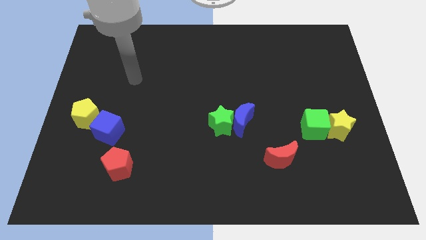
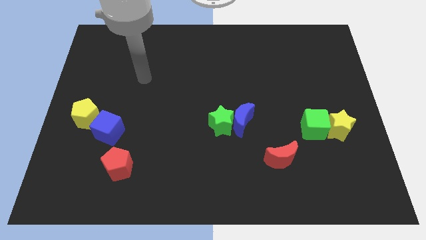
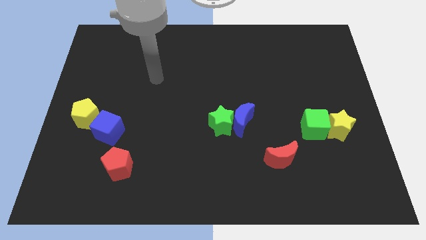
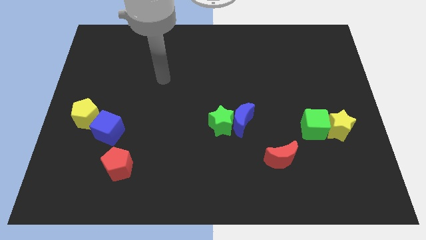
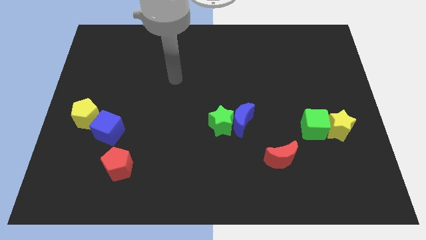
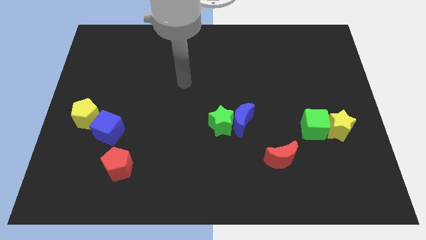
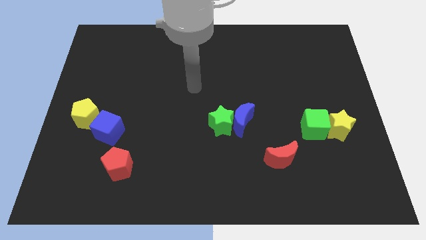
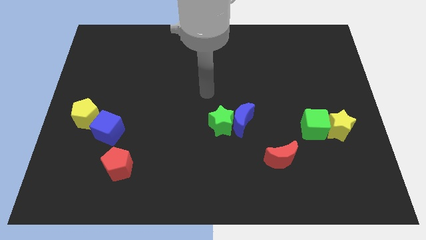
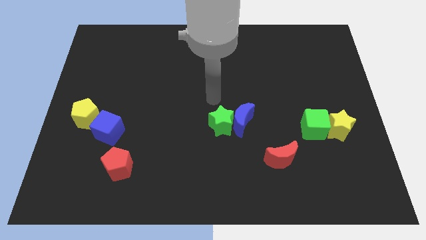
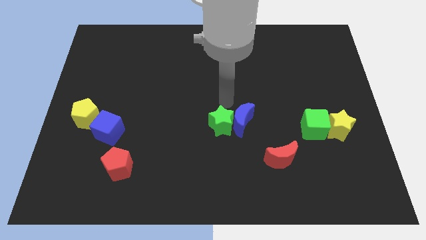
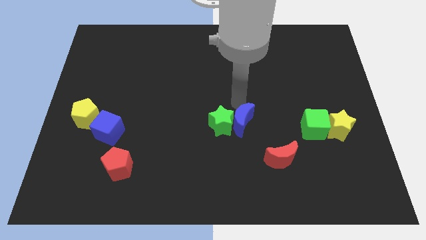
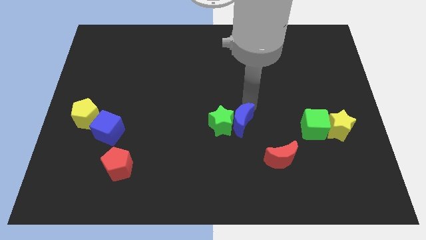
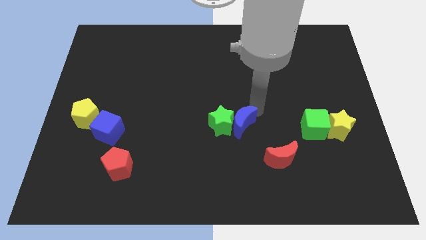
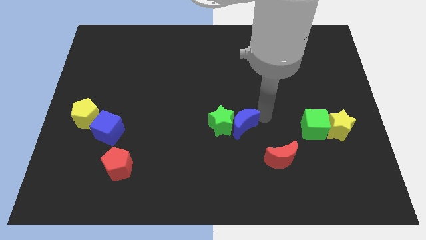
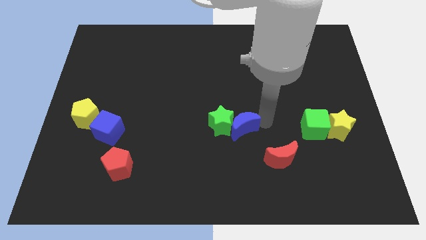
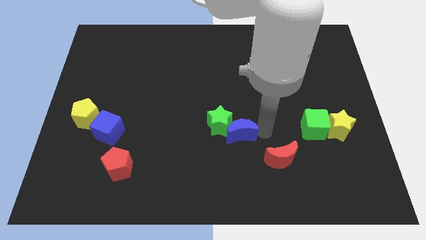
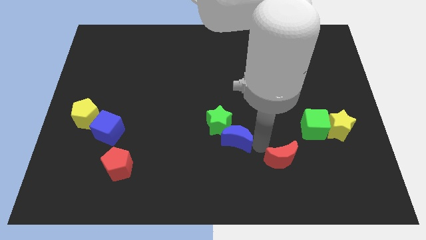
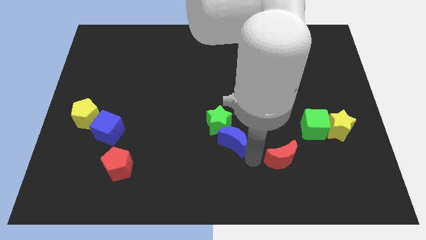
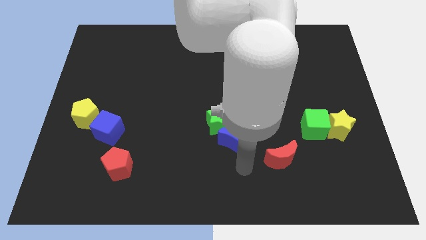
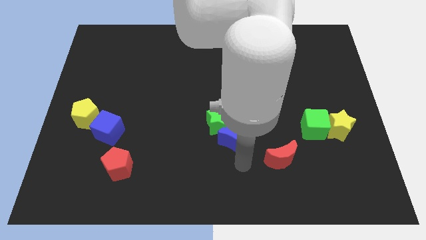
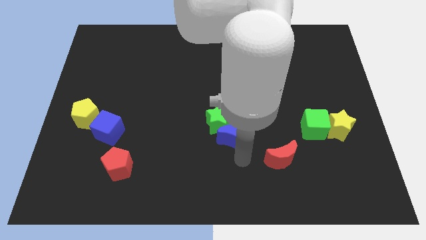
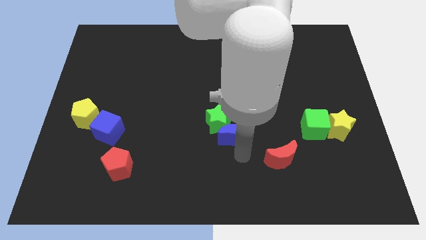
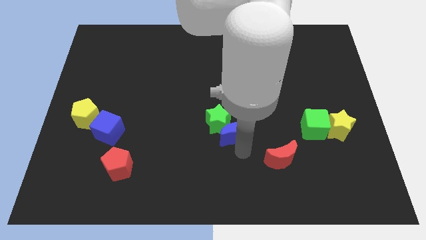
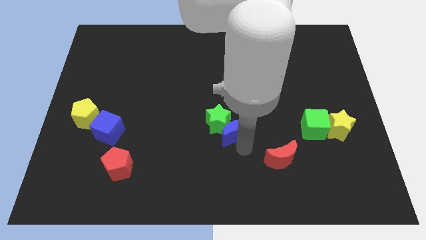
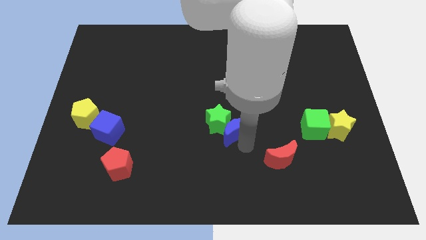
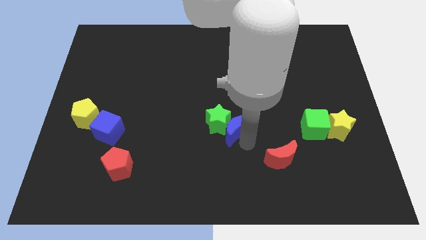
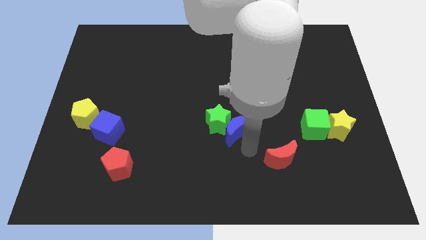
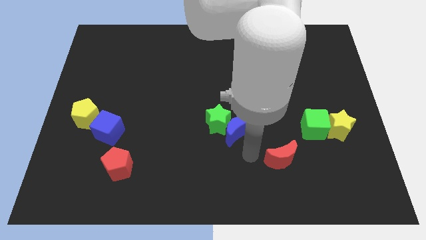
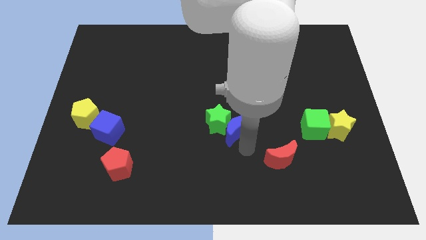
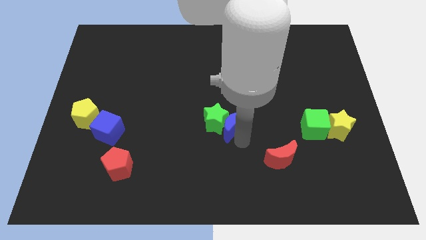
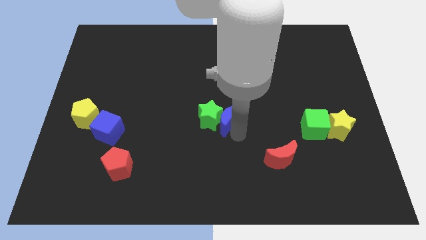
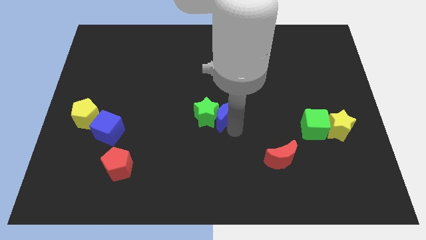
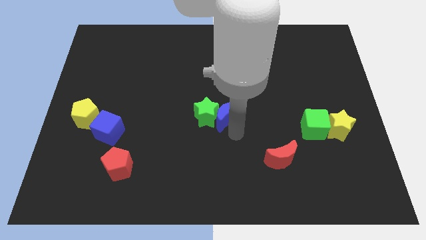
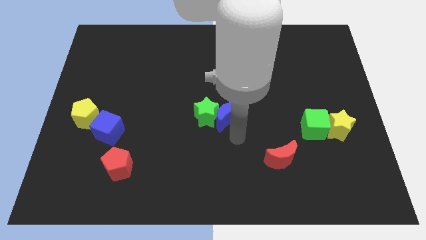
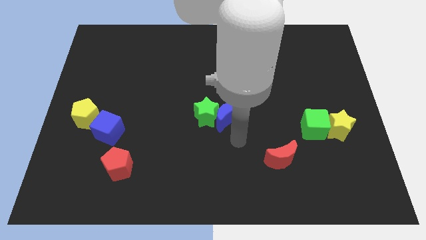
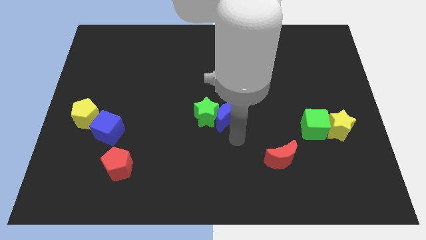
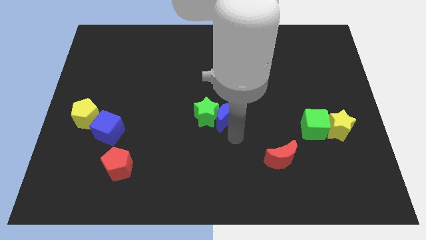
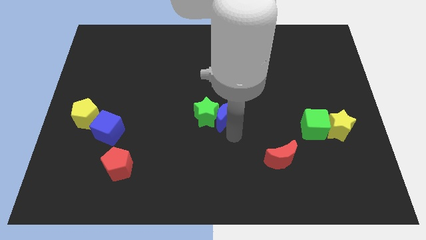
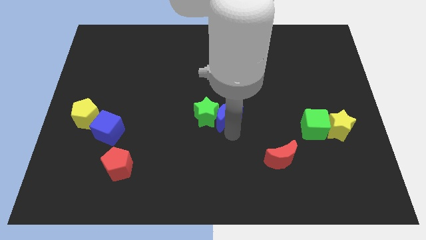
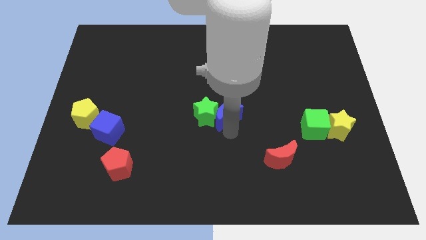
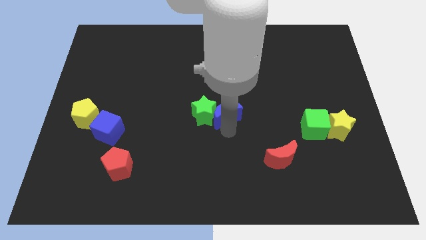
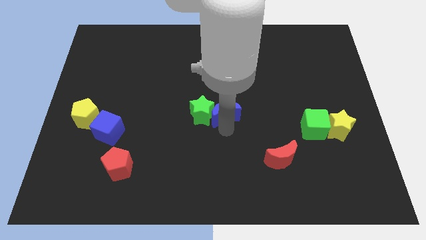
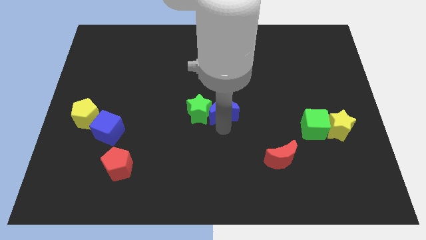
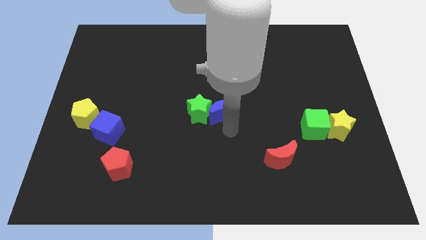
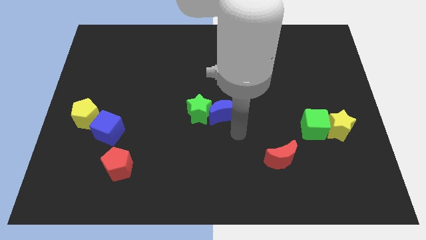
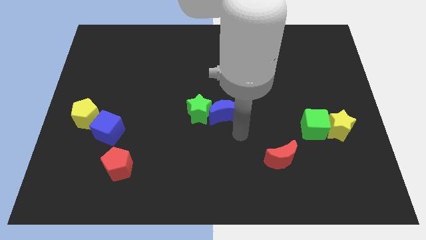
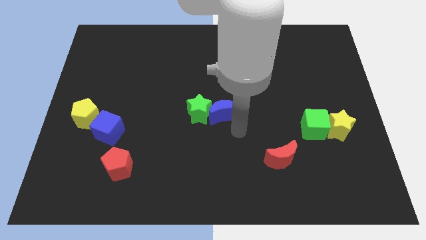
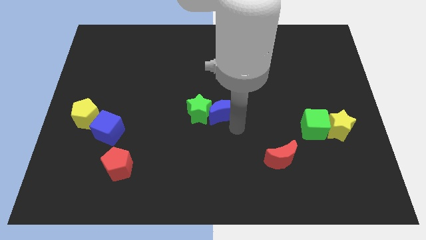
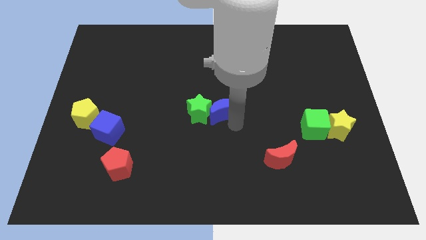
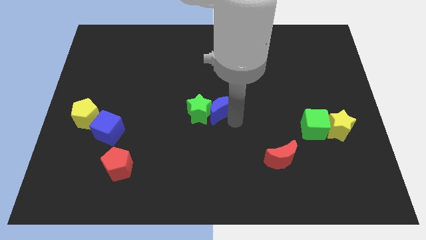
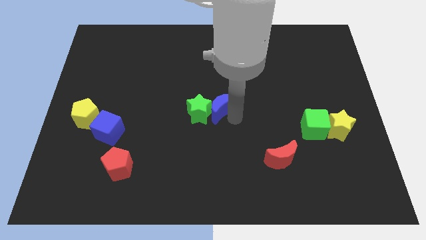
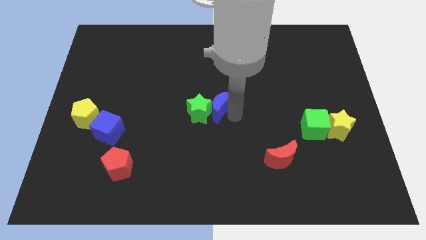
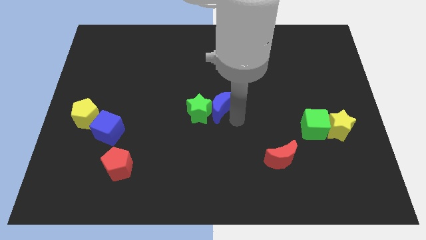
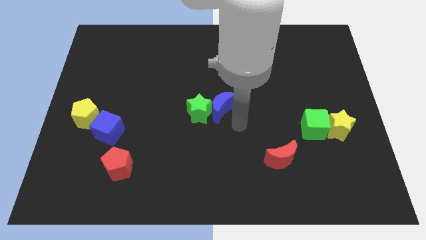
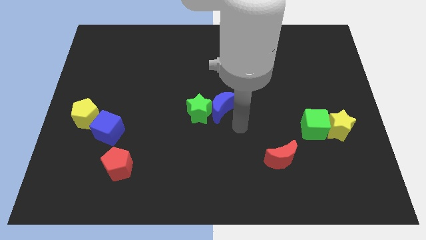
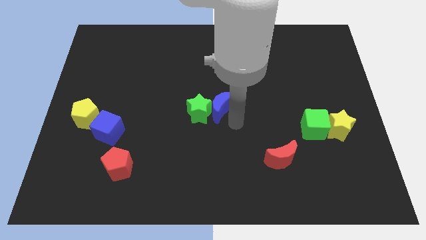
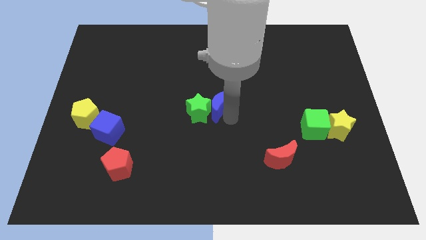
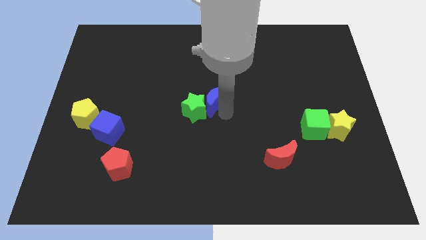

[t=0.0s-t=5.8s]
move the blue moon diagonally upwards and to the left a bit

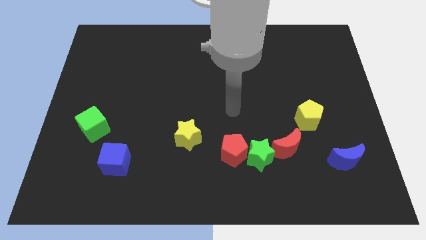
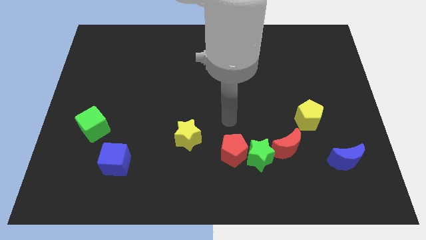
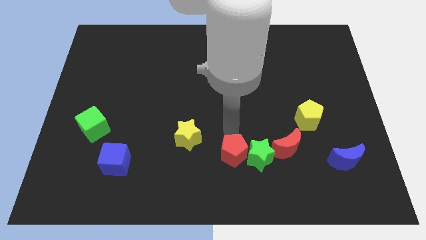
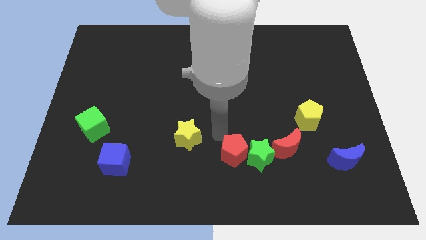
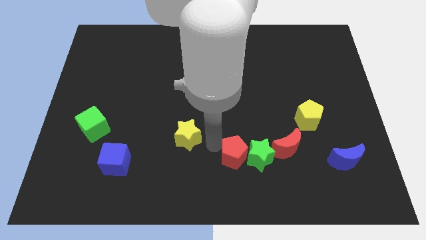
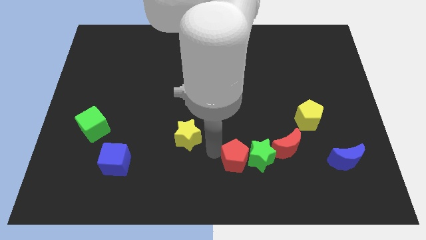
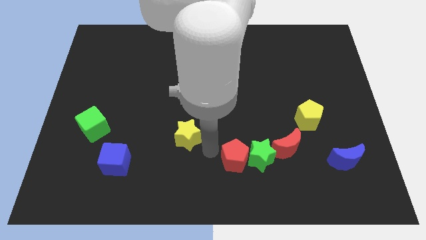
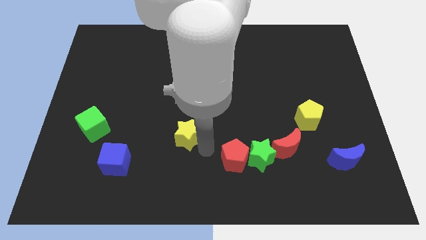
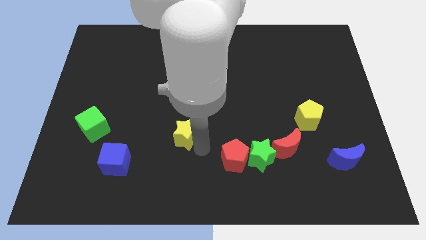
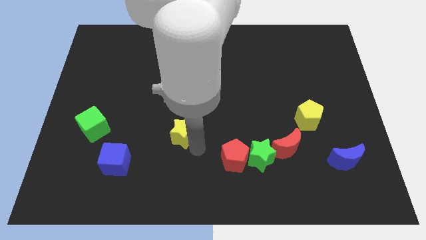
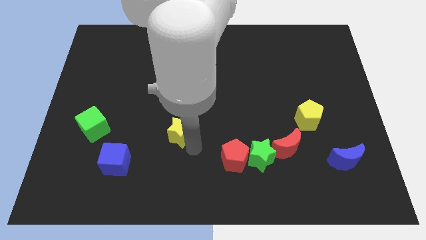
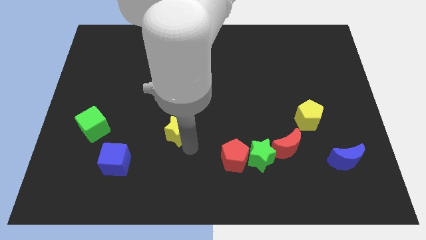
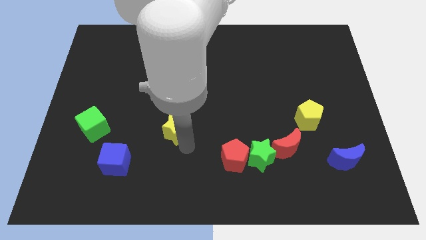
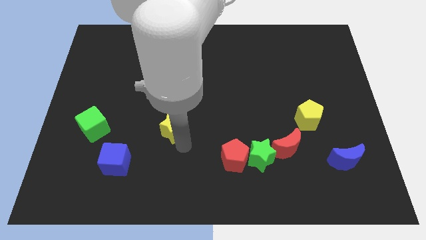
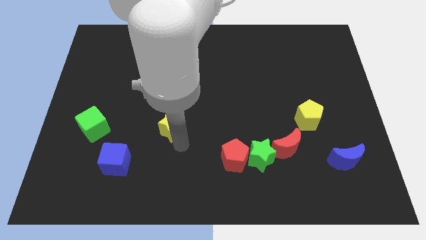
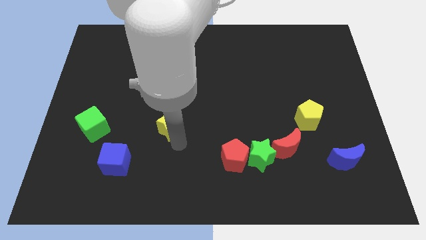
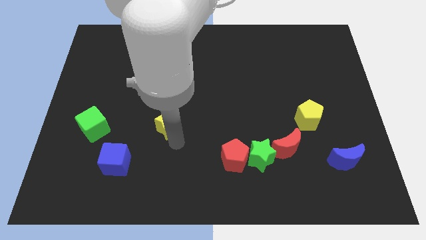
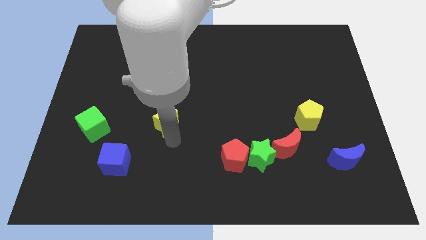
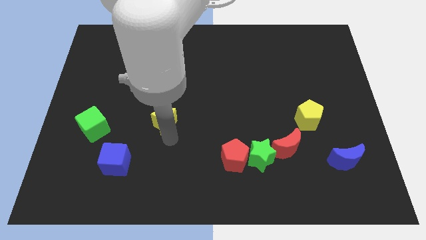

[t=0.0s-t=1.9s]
move the yellow star a little bit up and to the left diagonally

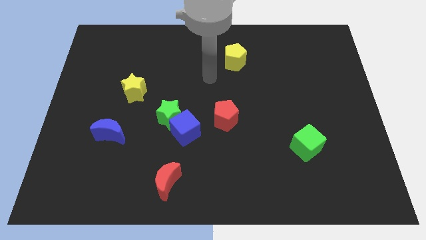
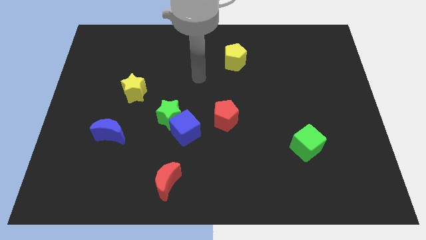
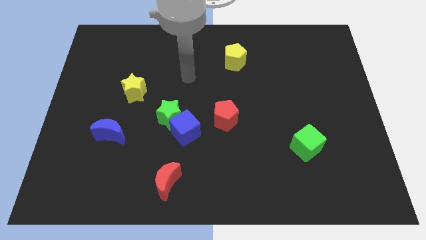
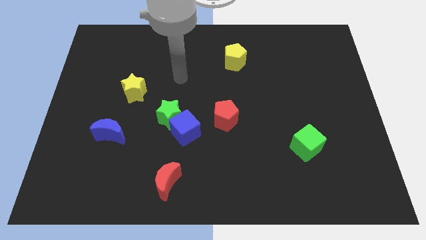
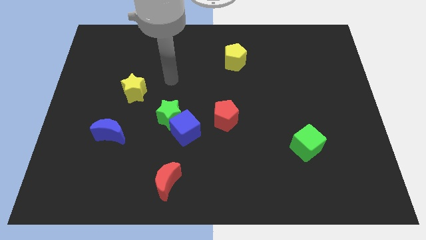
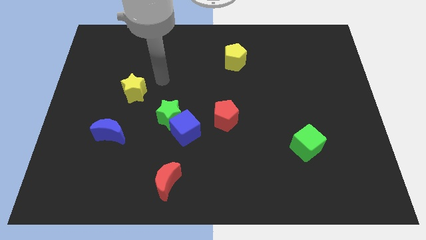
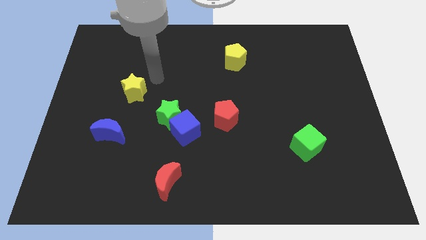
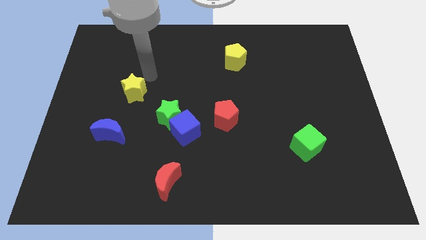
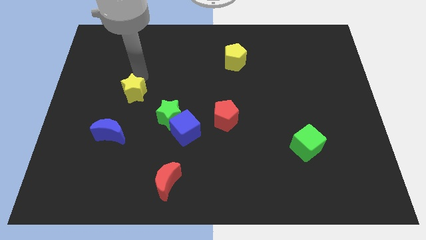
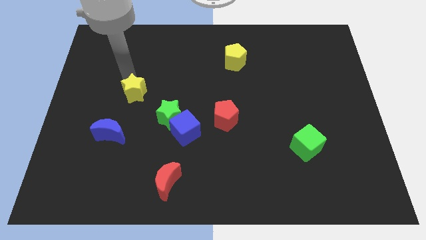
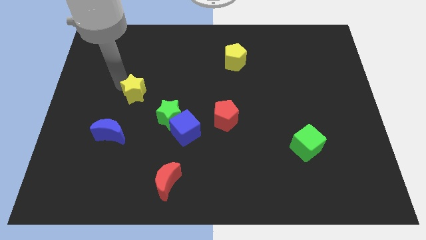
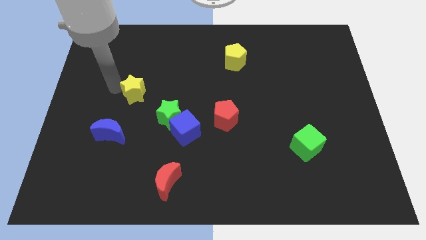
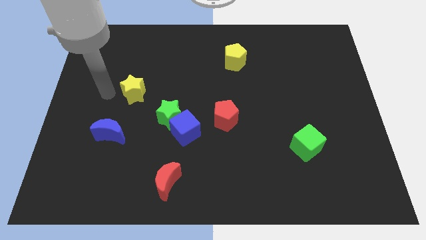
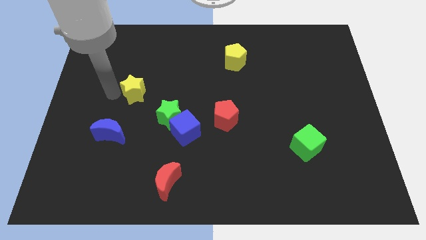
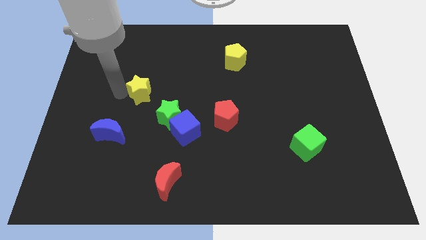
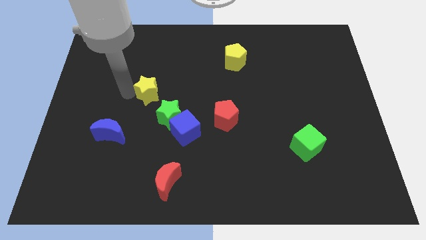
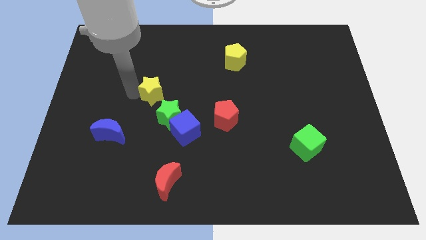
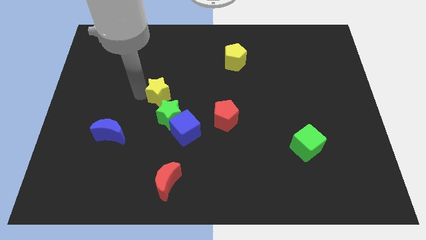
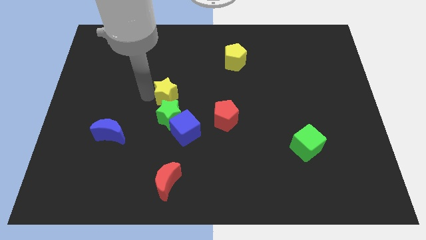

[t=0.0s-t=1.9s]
push the yellow star to the right somewhat
